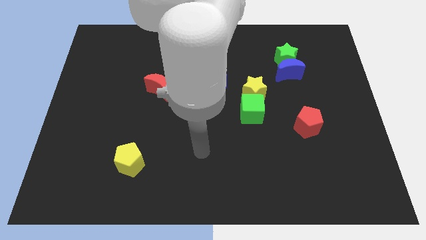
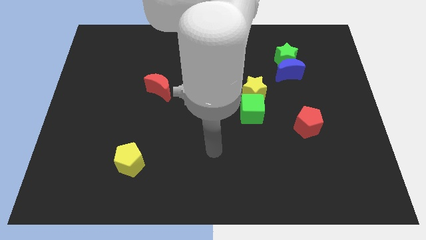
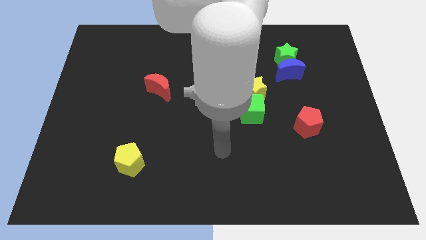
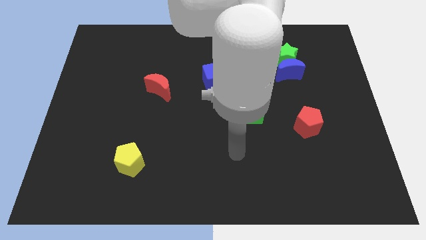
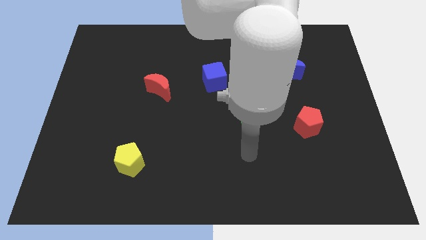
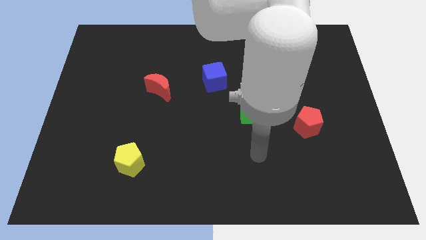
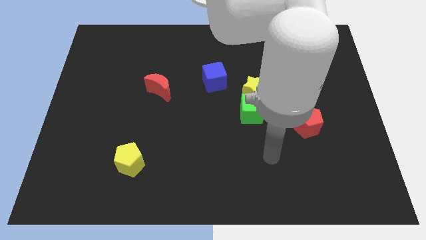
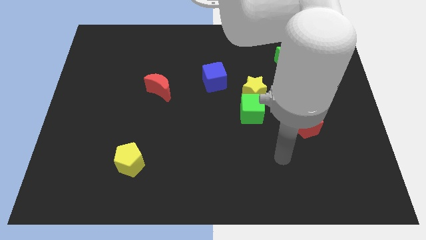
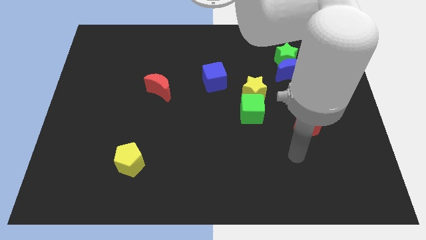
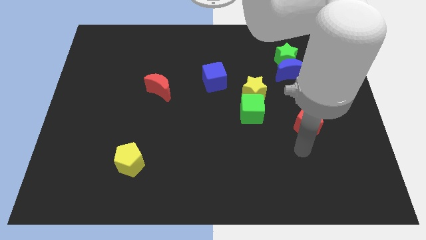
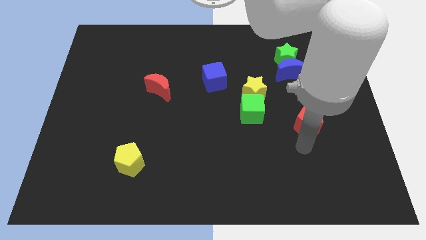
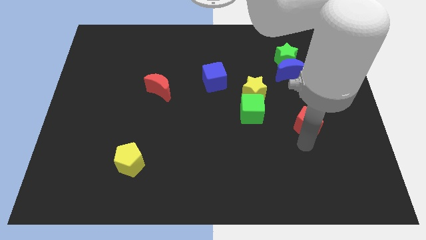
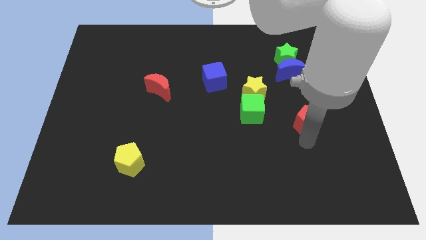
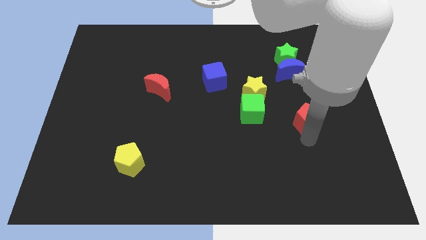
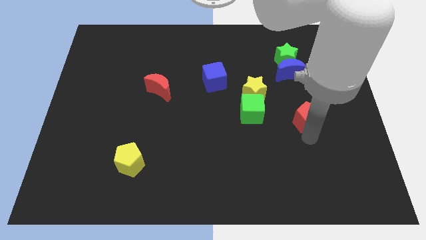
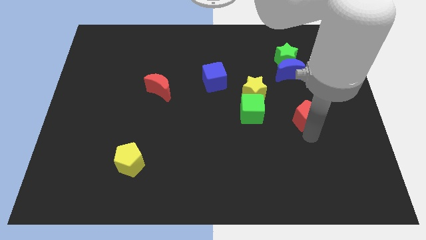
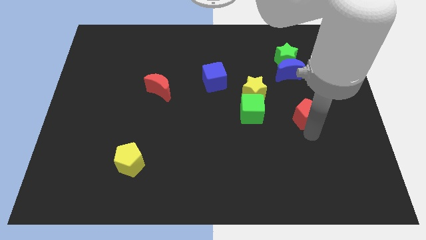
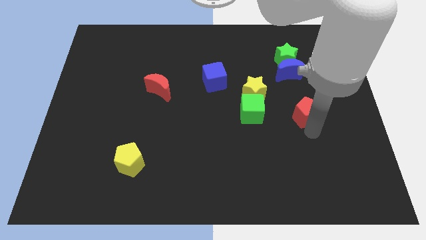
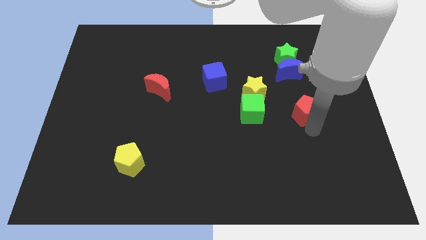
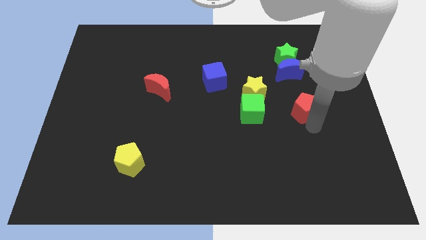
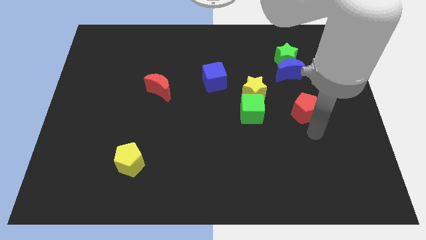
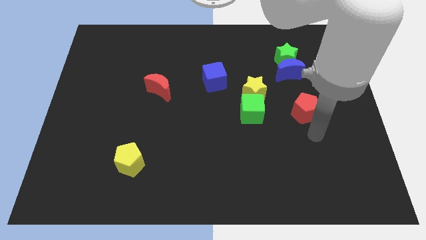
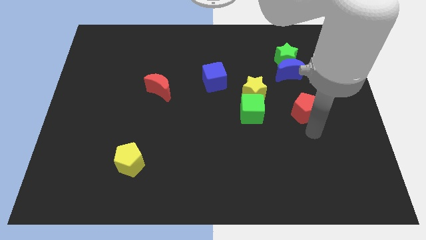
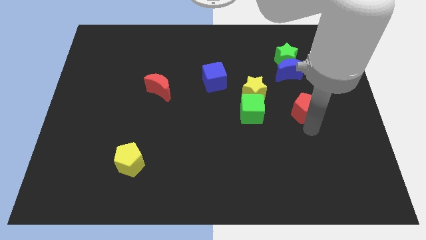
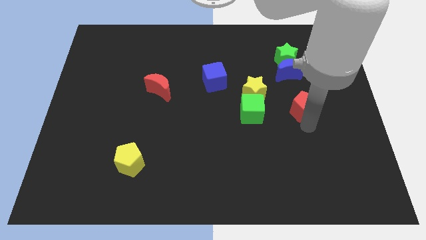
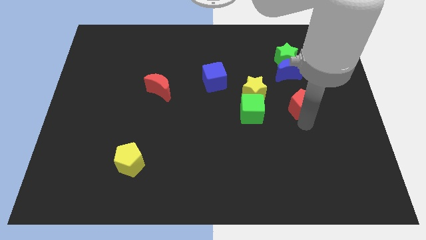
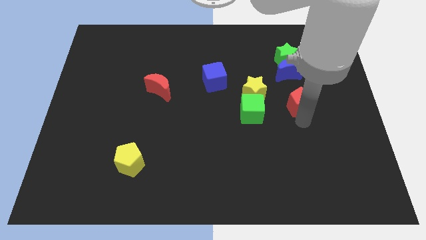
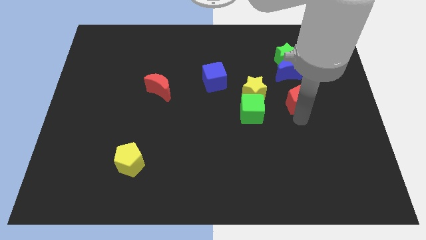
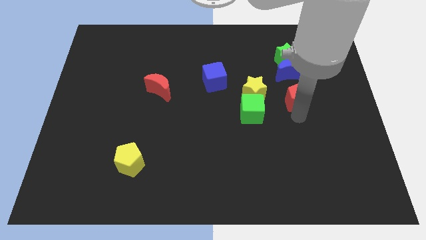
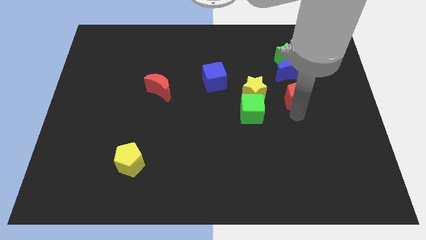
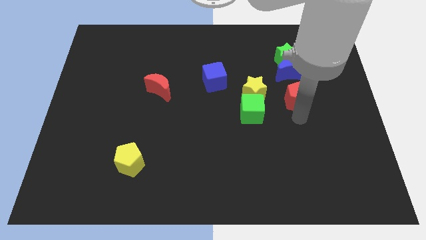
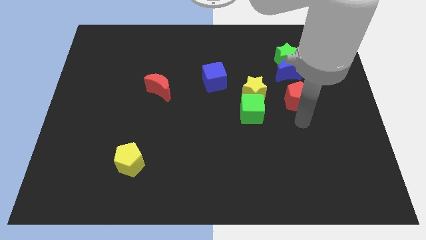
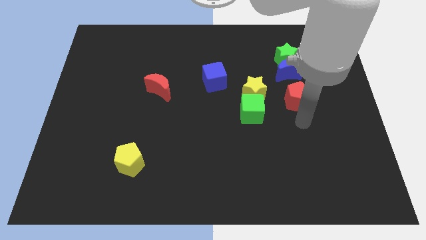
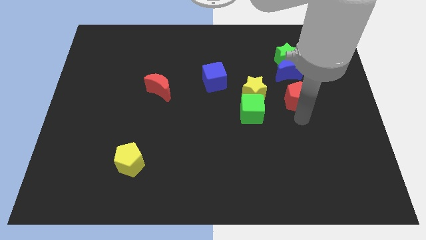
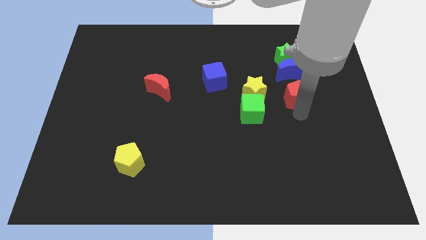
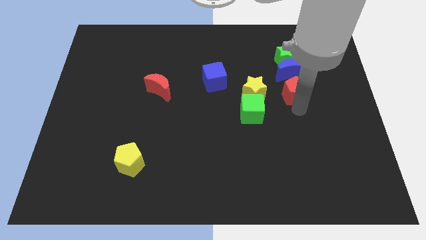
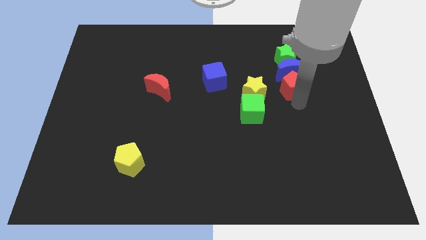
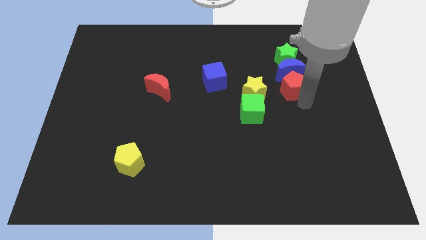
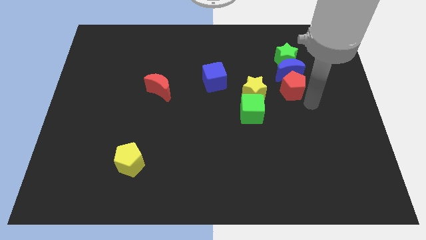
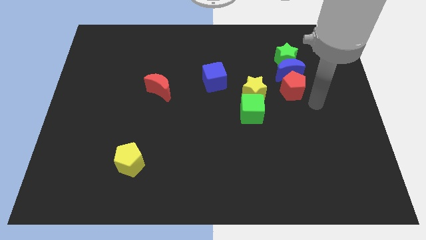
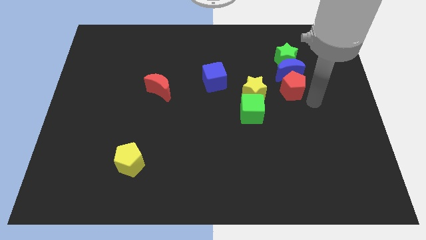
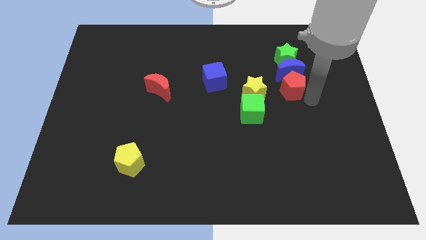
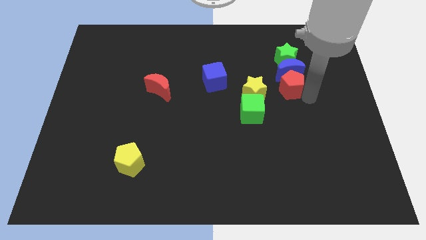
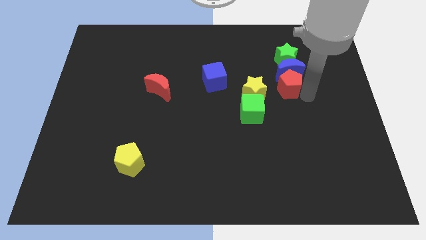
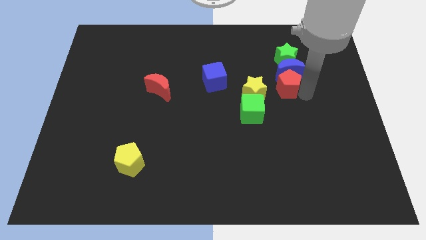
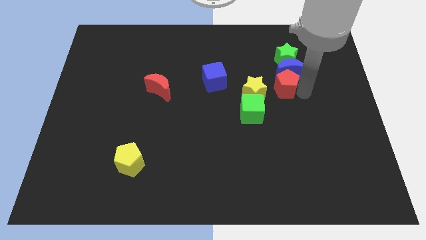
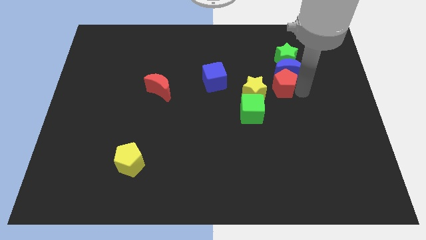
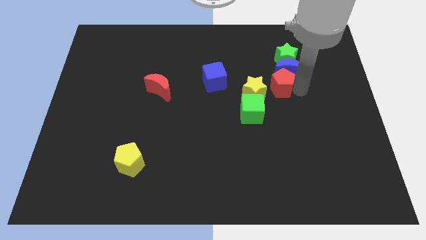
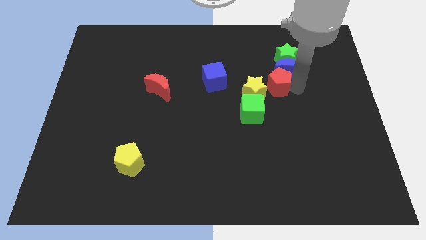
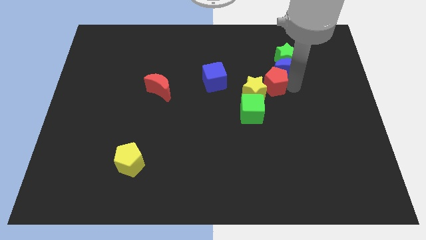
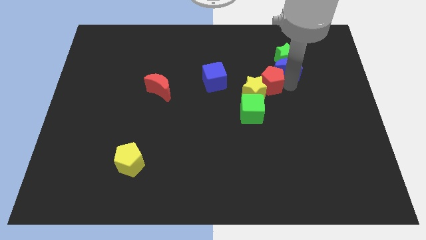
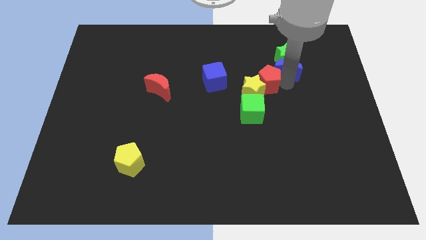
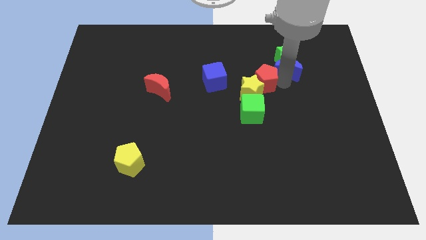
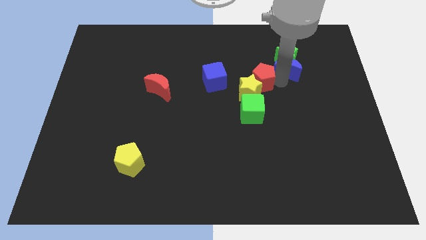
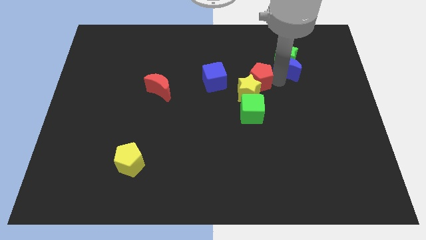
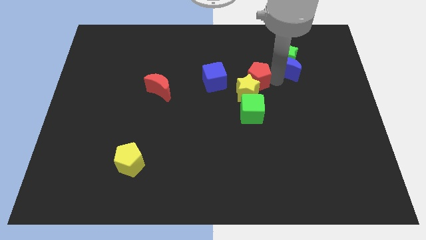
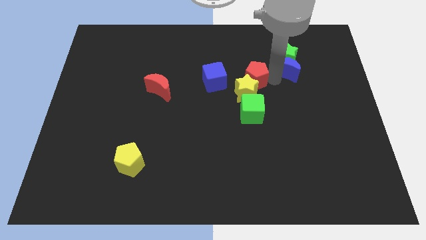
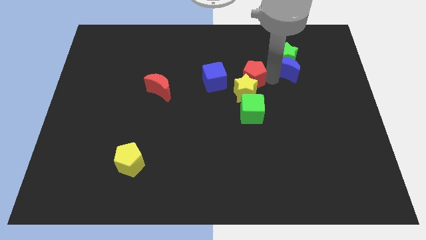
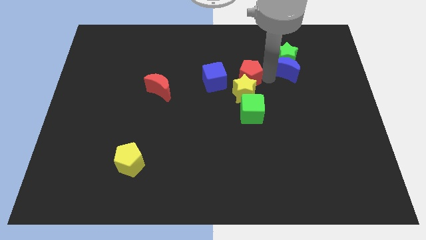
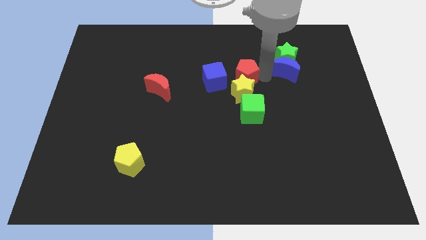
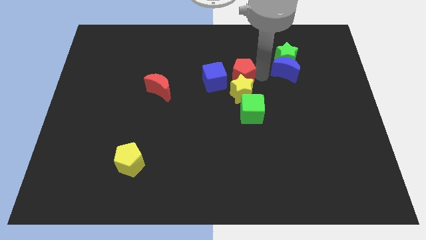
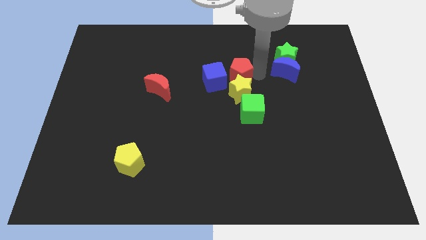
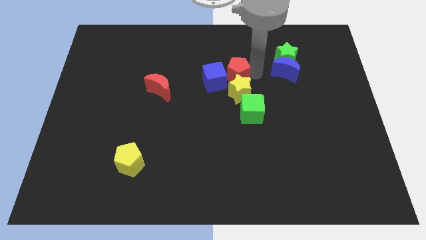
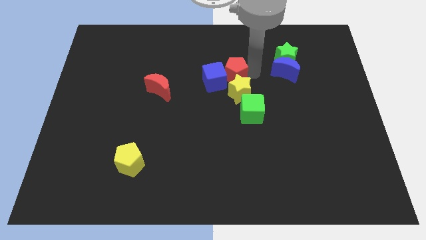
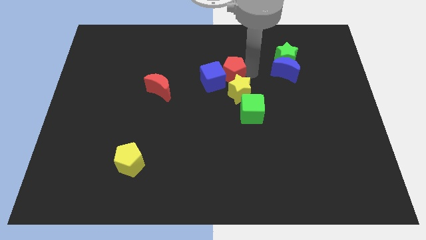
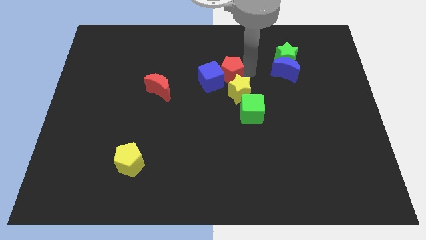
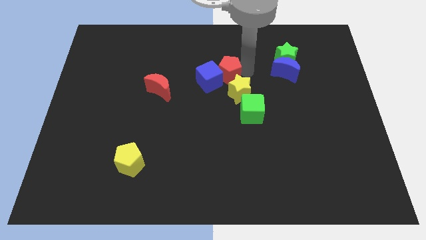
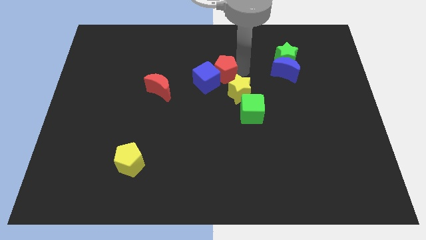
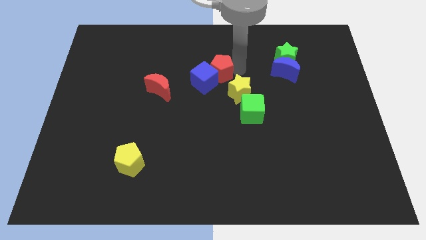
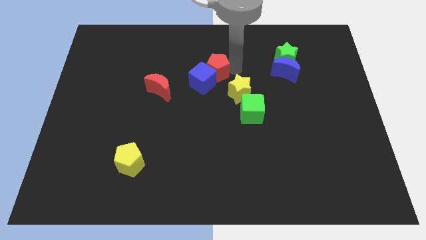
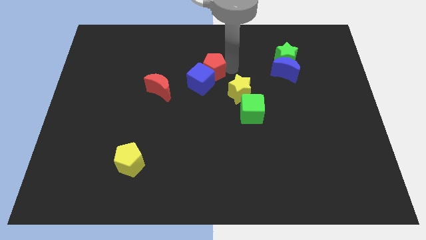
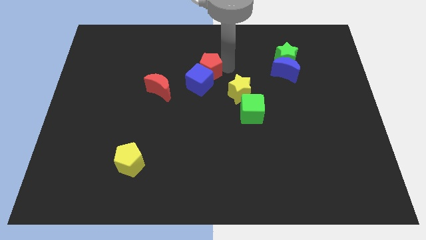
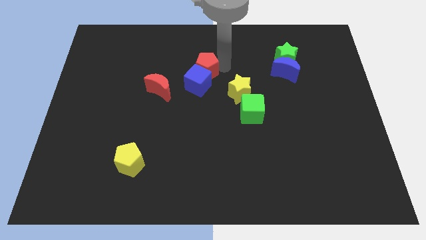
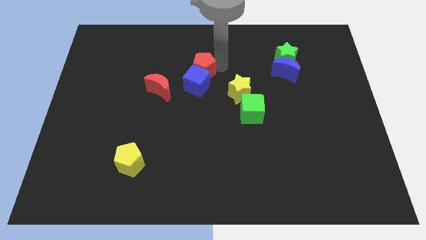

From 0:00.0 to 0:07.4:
slide the red pentagon to the top left side of the blue cube

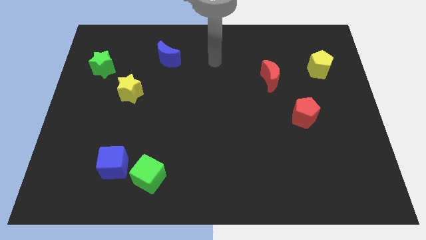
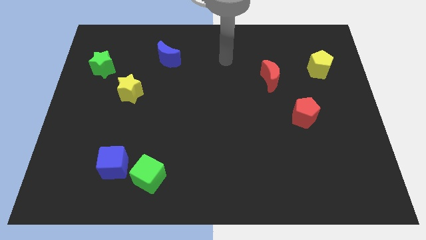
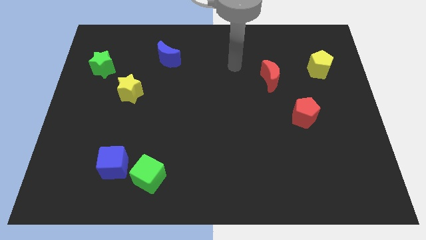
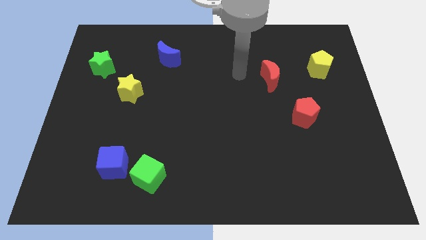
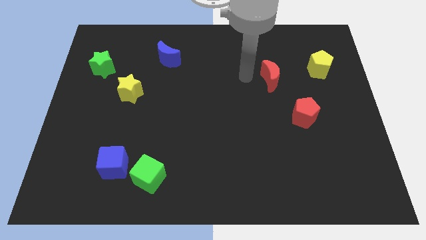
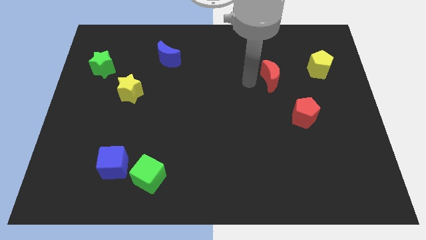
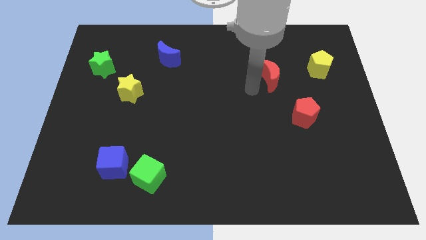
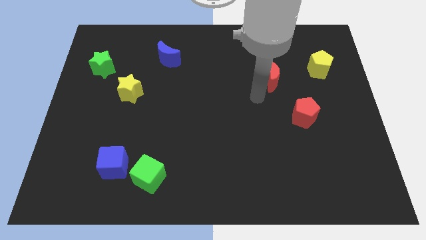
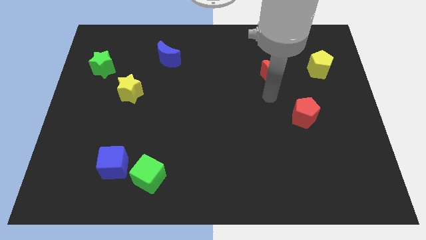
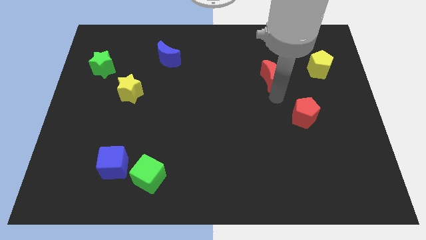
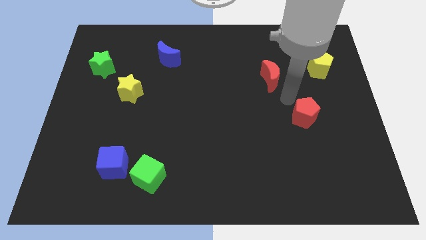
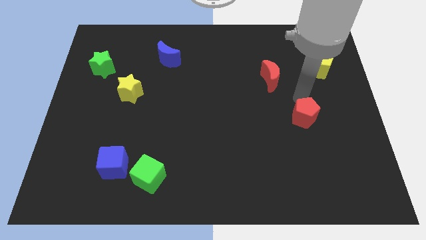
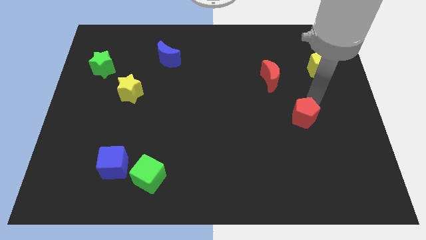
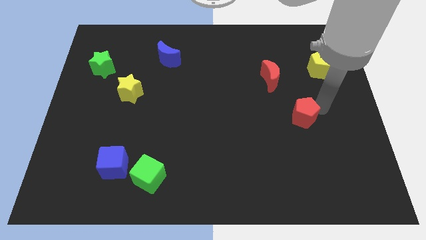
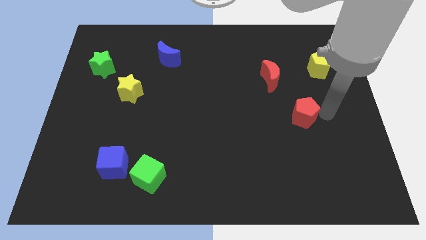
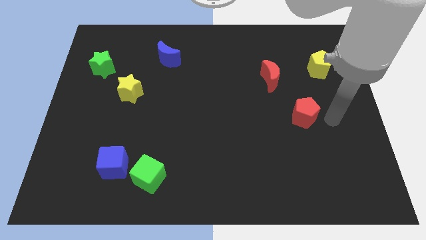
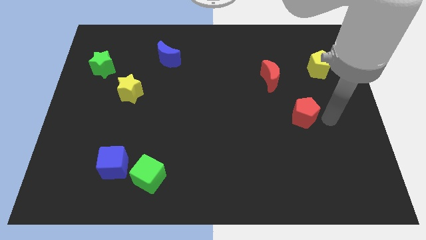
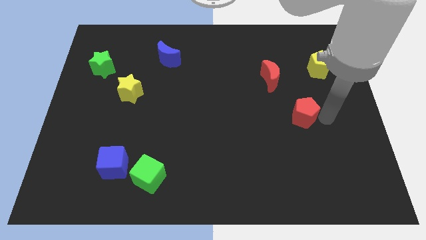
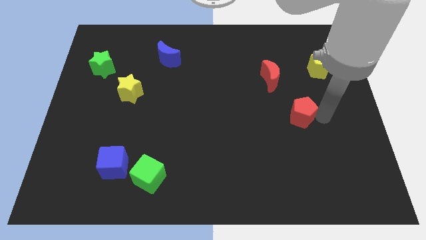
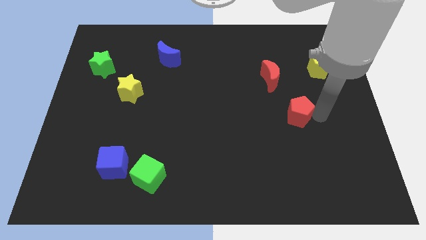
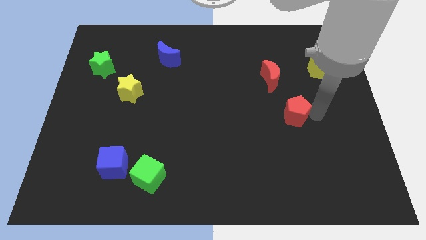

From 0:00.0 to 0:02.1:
move the red pentagon to the bottom side of the red moon
